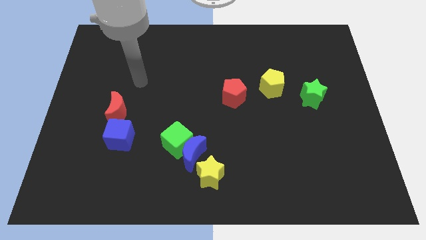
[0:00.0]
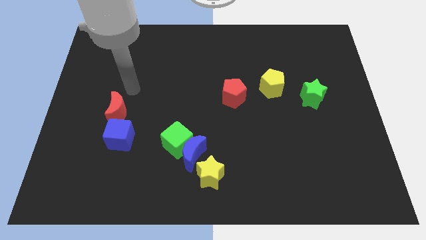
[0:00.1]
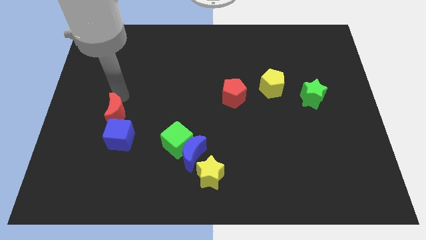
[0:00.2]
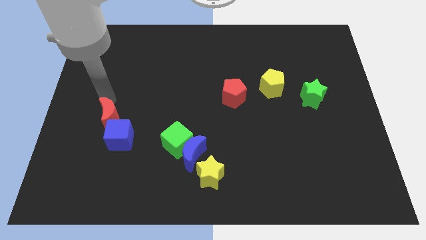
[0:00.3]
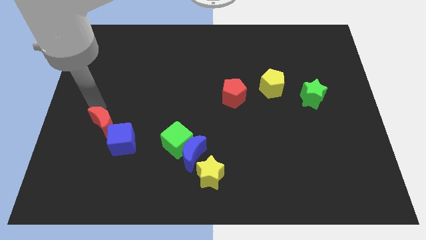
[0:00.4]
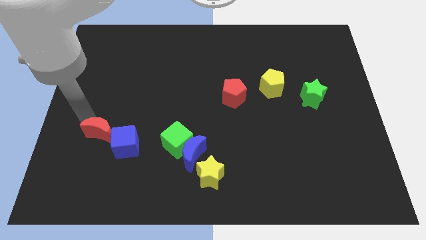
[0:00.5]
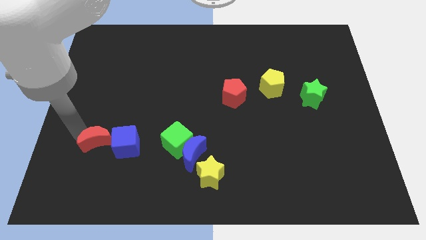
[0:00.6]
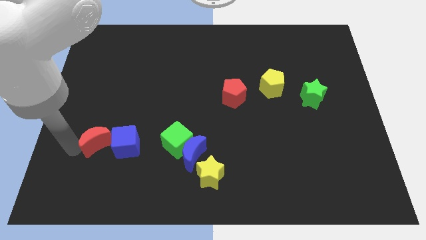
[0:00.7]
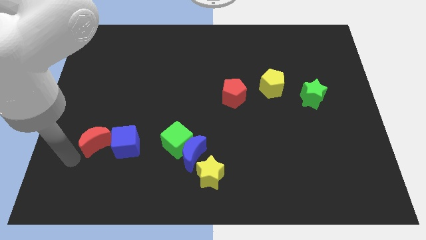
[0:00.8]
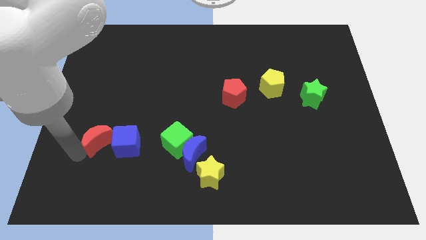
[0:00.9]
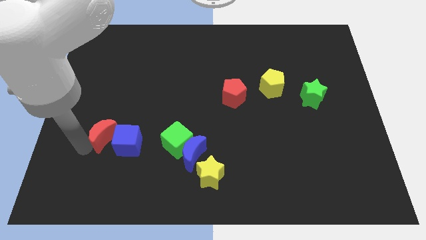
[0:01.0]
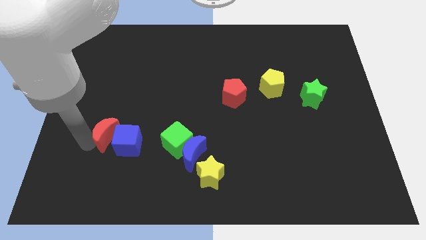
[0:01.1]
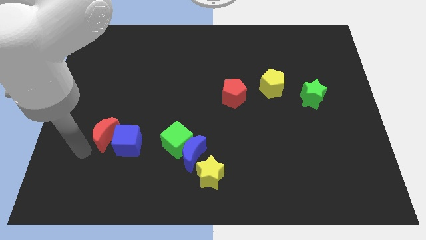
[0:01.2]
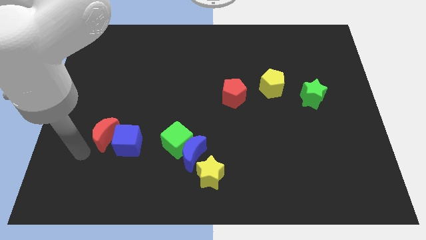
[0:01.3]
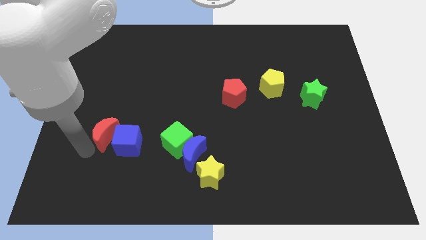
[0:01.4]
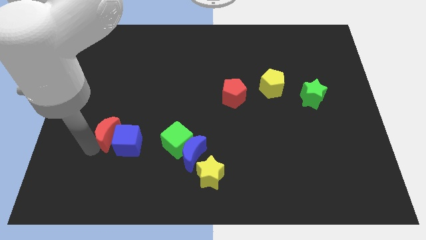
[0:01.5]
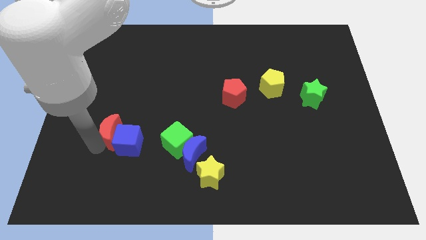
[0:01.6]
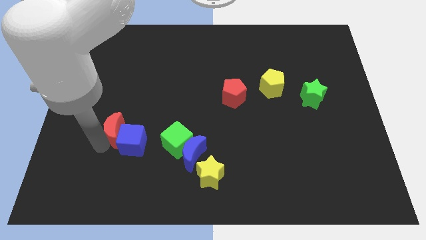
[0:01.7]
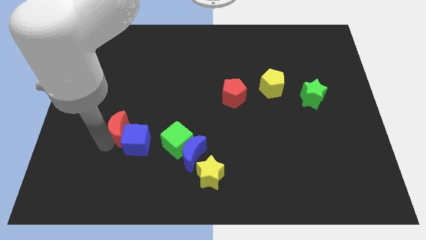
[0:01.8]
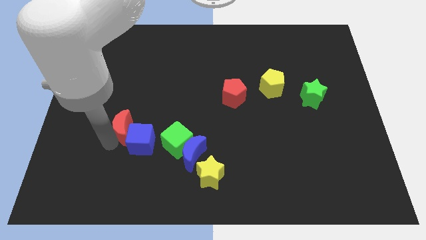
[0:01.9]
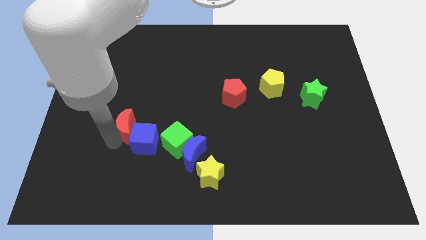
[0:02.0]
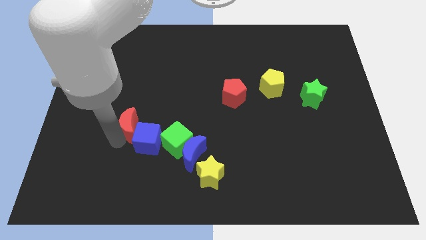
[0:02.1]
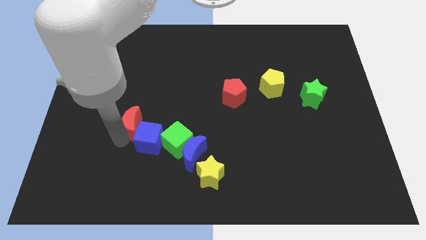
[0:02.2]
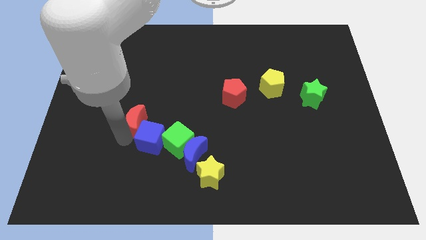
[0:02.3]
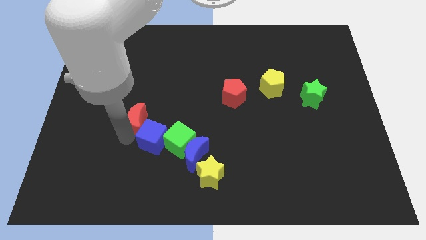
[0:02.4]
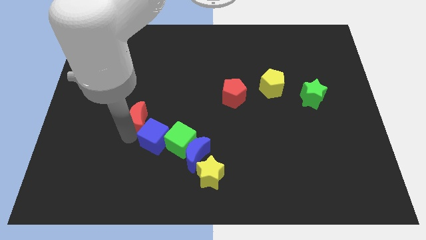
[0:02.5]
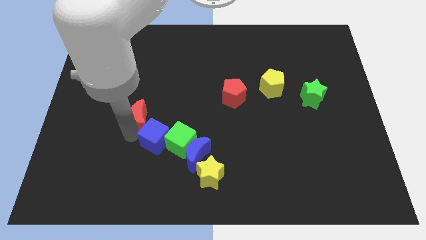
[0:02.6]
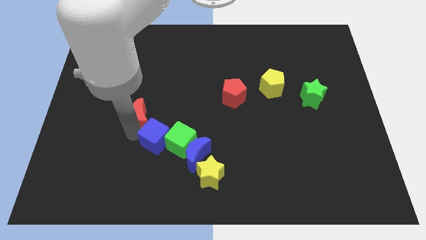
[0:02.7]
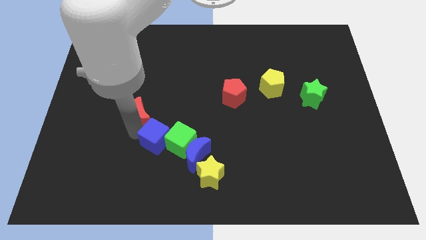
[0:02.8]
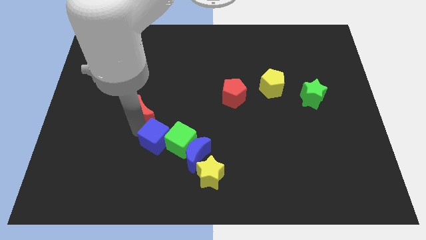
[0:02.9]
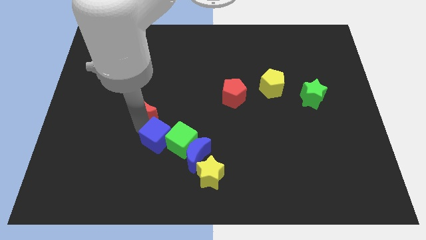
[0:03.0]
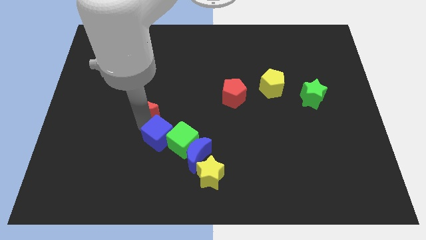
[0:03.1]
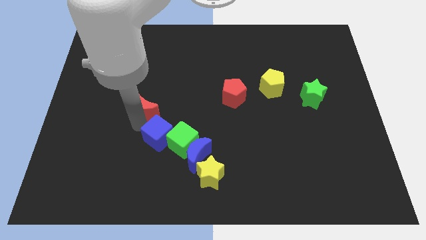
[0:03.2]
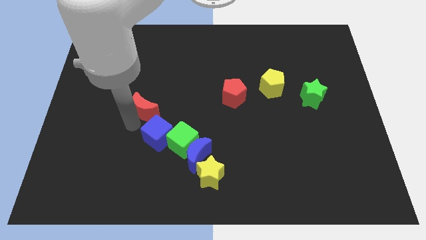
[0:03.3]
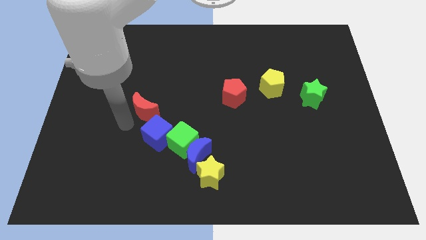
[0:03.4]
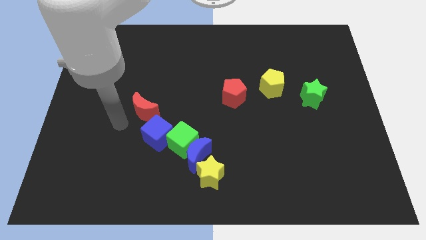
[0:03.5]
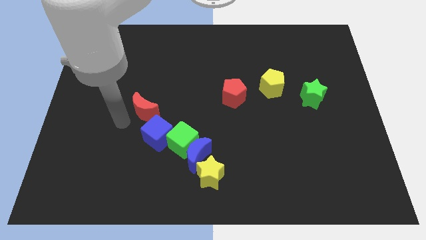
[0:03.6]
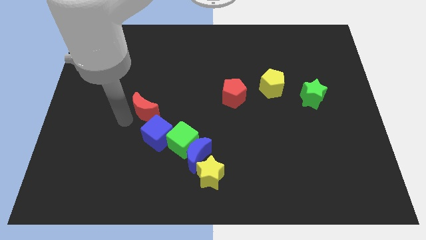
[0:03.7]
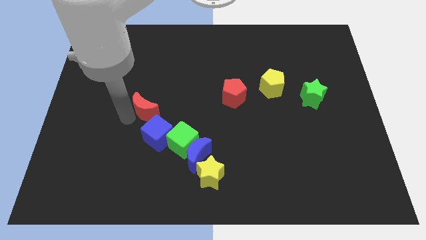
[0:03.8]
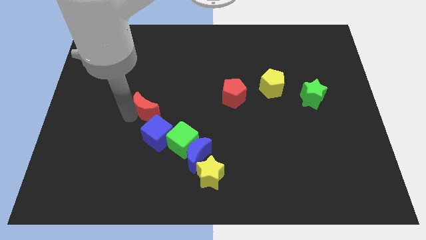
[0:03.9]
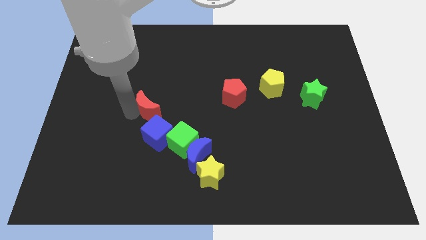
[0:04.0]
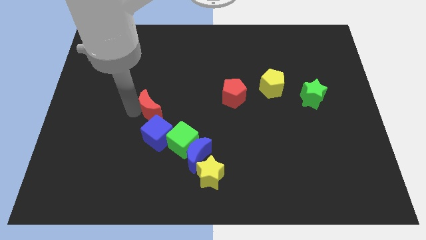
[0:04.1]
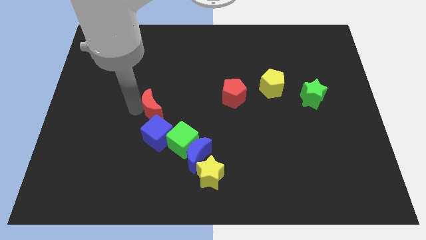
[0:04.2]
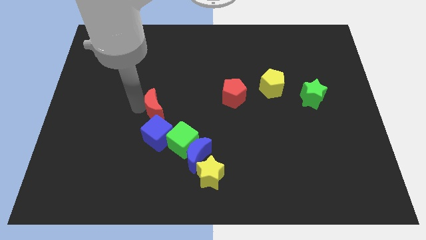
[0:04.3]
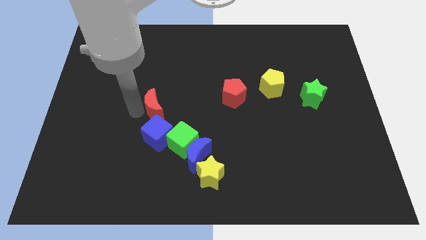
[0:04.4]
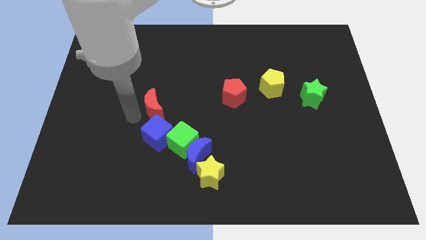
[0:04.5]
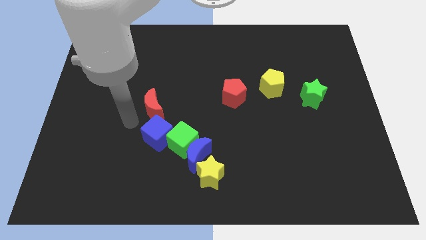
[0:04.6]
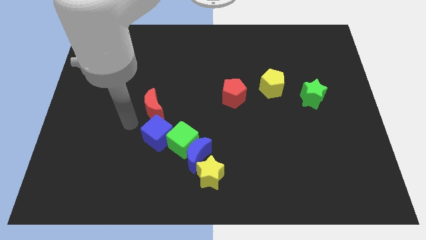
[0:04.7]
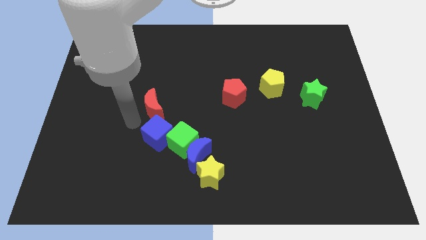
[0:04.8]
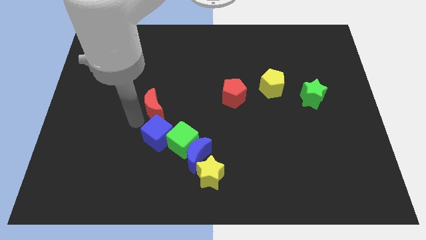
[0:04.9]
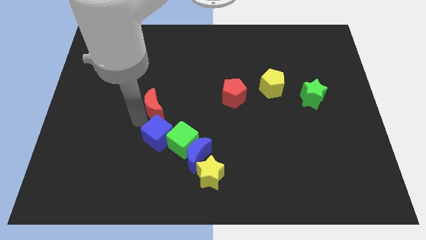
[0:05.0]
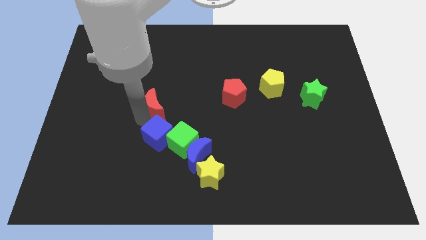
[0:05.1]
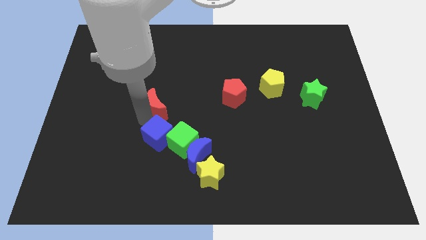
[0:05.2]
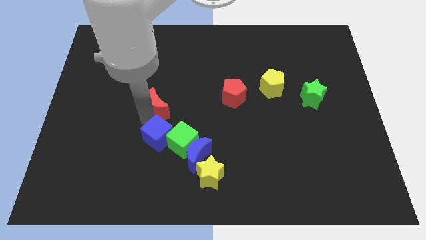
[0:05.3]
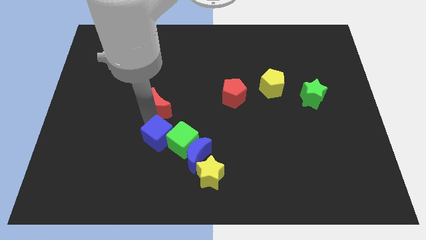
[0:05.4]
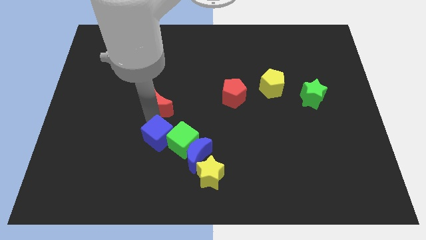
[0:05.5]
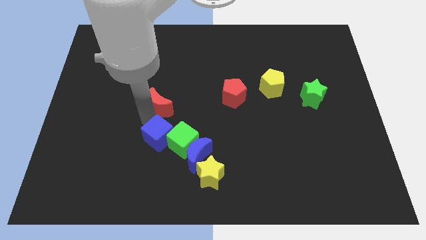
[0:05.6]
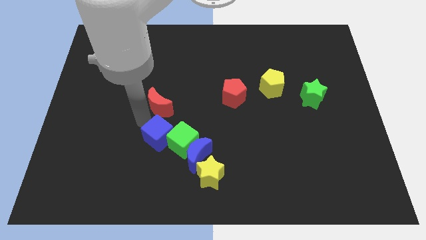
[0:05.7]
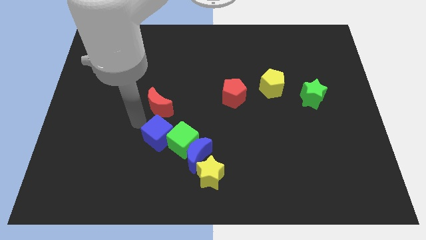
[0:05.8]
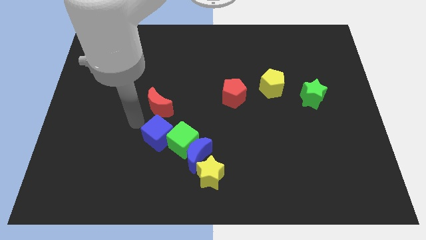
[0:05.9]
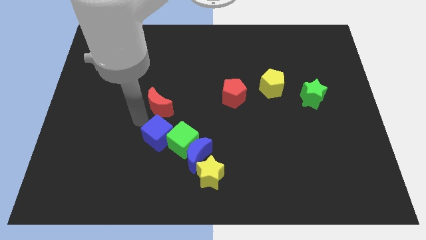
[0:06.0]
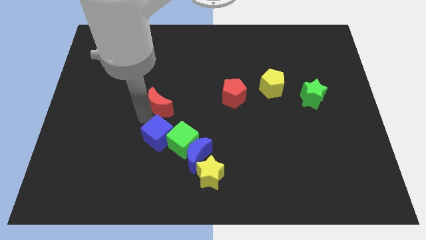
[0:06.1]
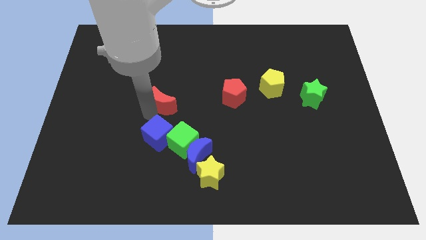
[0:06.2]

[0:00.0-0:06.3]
move the red moon to the middle of the board

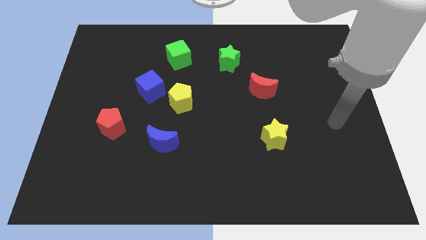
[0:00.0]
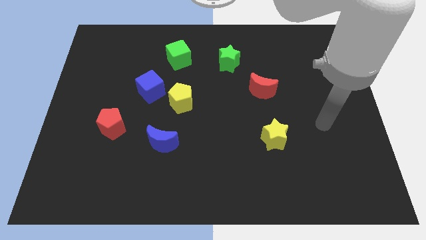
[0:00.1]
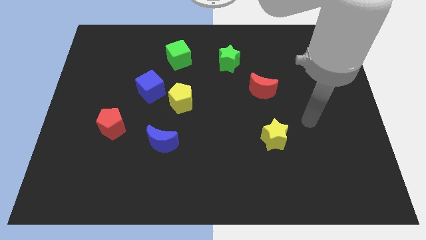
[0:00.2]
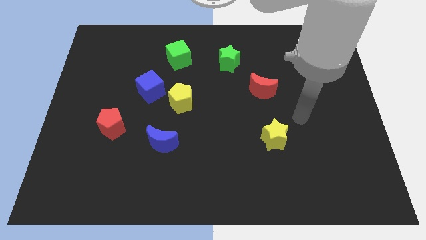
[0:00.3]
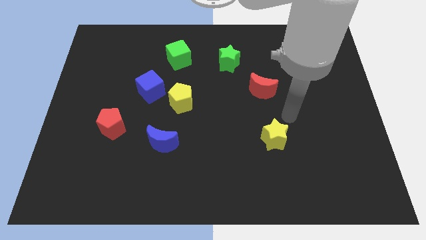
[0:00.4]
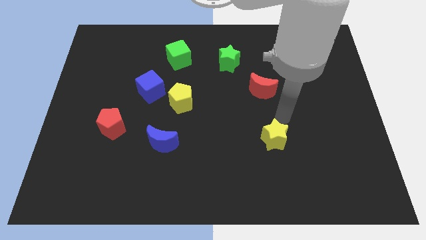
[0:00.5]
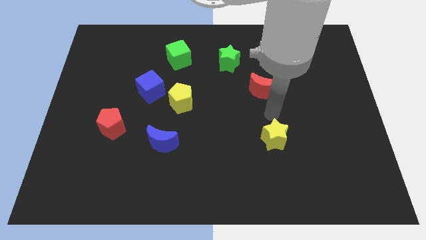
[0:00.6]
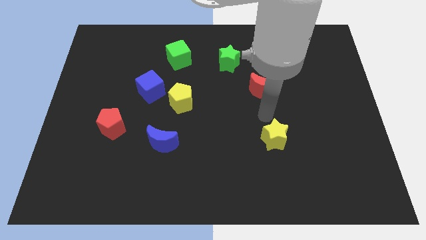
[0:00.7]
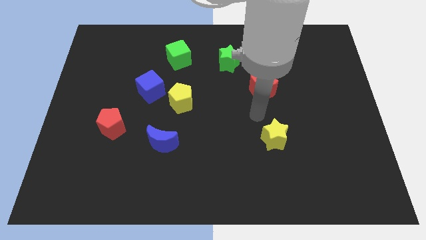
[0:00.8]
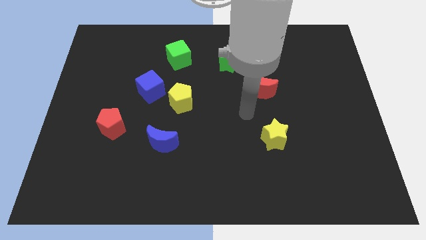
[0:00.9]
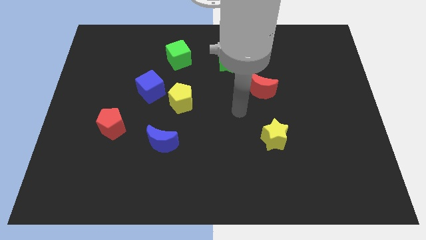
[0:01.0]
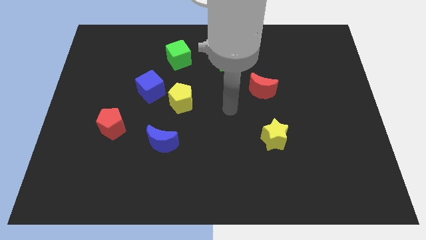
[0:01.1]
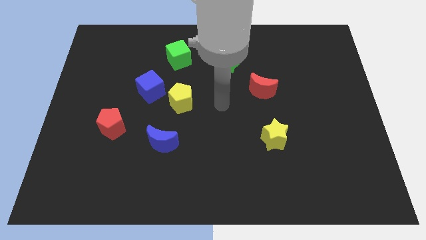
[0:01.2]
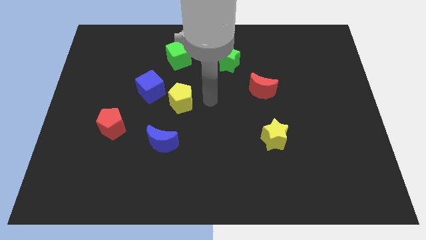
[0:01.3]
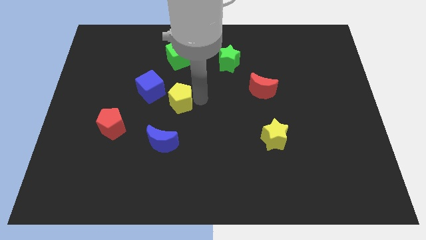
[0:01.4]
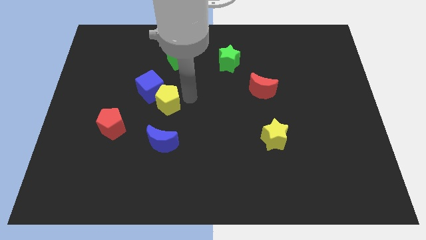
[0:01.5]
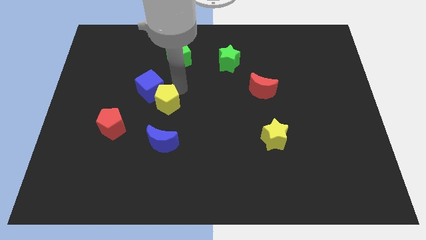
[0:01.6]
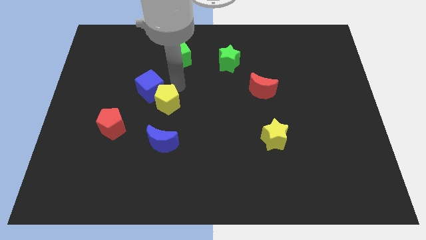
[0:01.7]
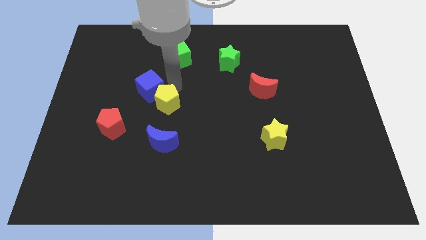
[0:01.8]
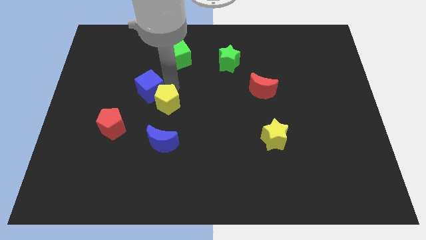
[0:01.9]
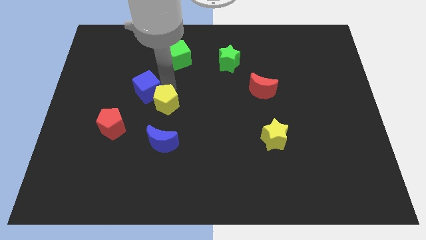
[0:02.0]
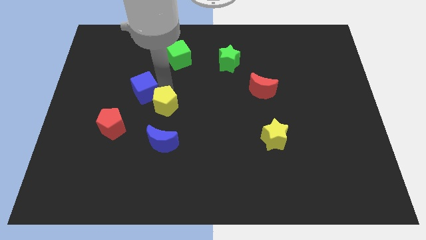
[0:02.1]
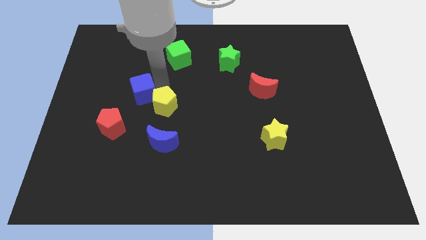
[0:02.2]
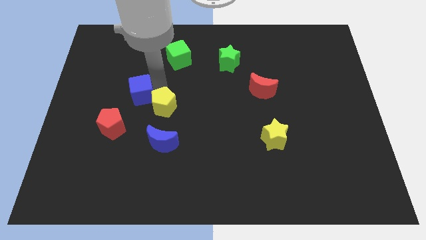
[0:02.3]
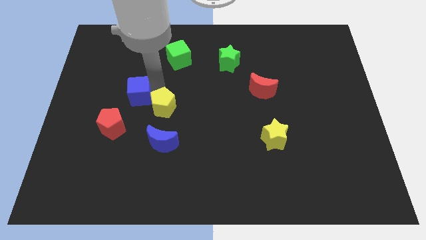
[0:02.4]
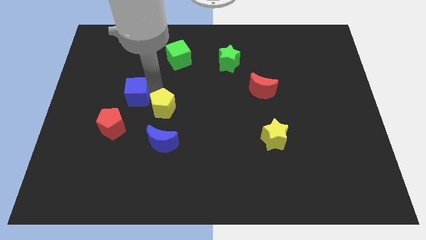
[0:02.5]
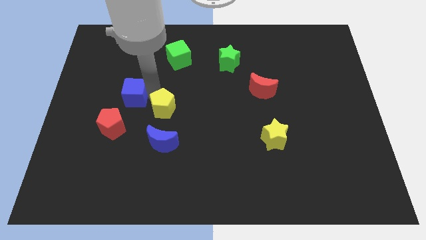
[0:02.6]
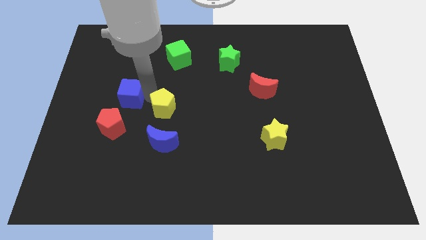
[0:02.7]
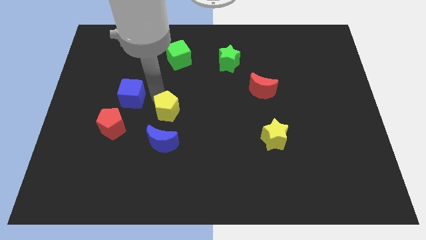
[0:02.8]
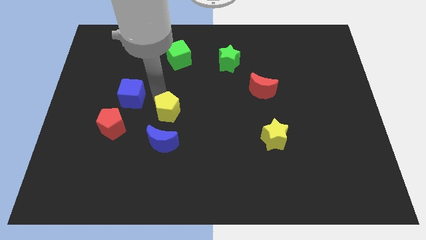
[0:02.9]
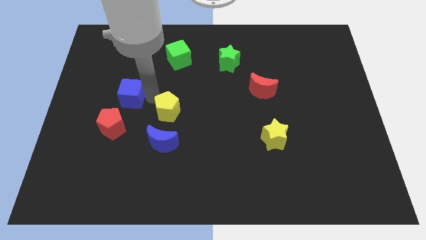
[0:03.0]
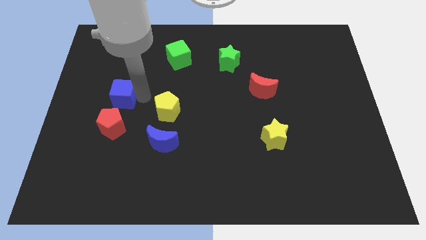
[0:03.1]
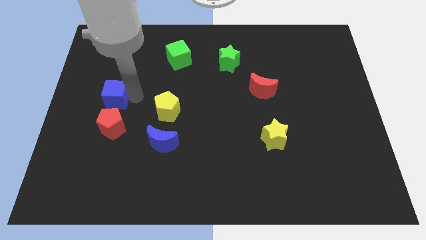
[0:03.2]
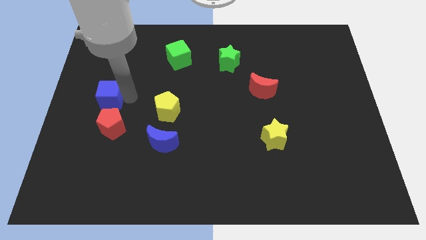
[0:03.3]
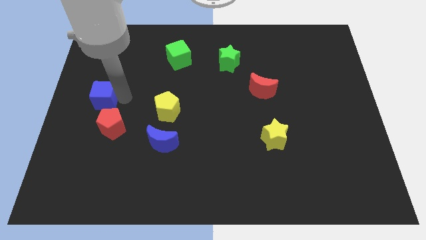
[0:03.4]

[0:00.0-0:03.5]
move the blue cube to the left side of the board
